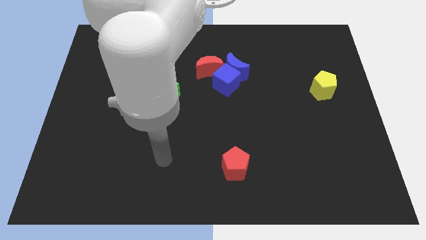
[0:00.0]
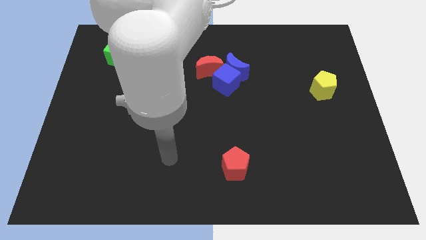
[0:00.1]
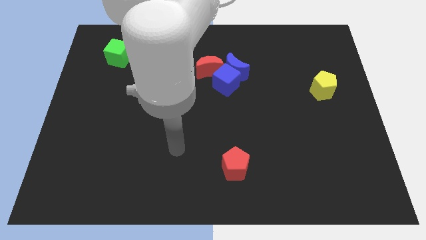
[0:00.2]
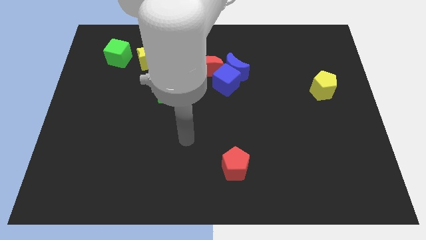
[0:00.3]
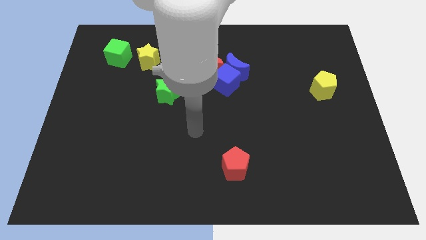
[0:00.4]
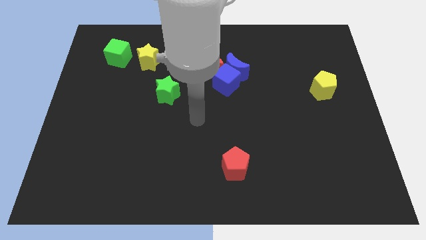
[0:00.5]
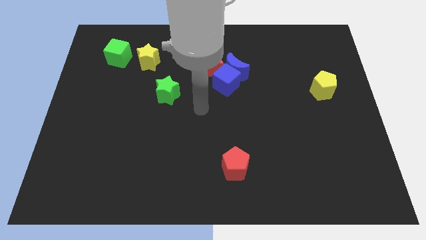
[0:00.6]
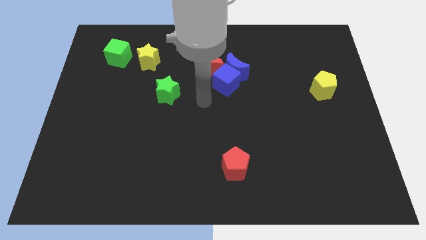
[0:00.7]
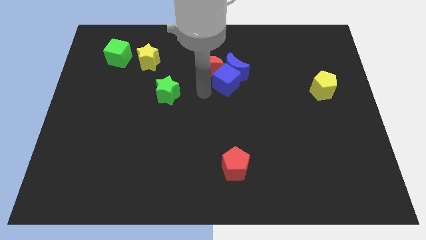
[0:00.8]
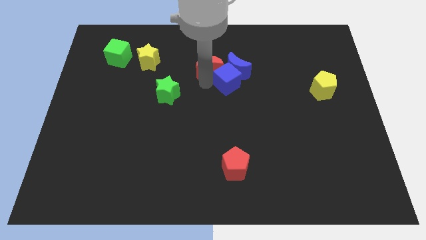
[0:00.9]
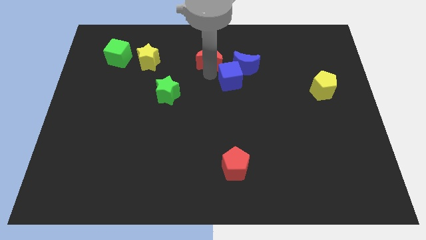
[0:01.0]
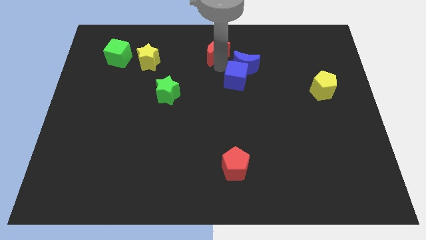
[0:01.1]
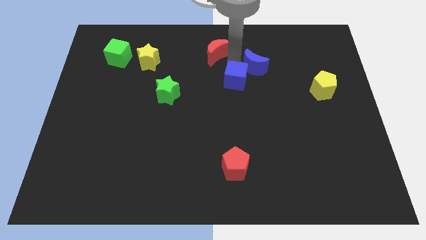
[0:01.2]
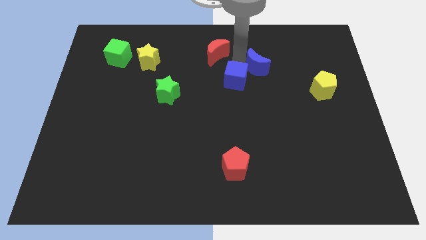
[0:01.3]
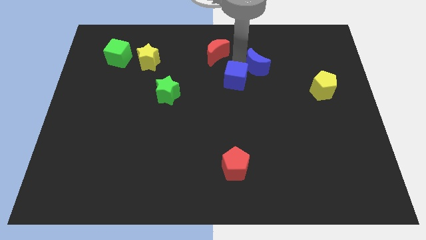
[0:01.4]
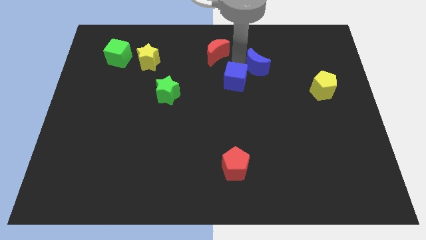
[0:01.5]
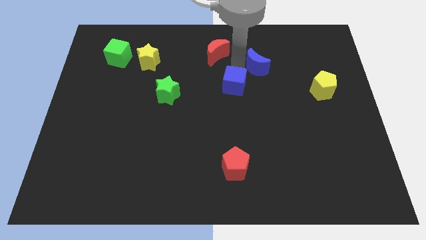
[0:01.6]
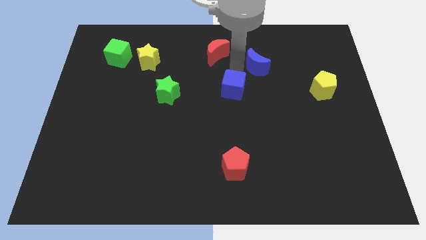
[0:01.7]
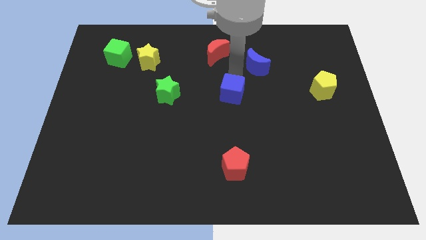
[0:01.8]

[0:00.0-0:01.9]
pull the blue cube apart from the blue moon and red moon

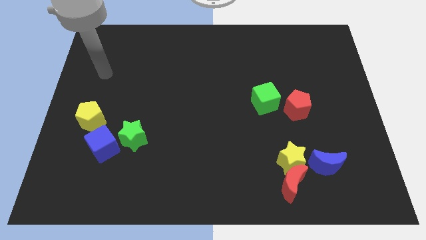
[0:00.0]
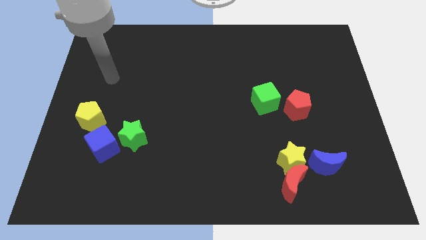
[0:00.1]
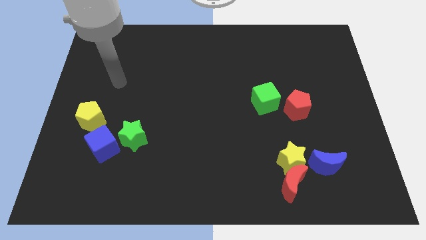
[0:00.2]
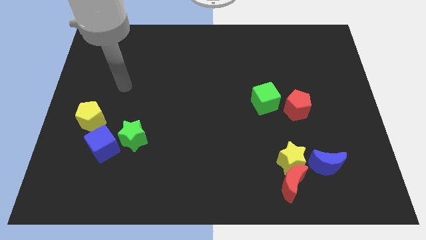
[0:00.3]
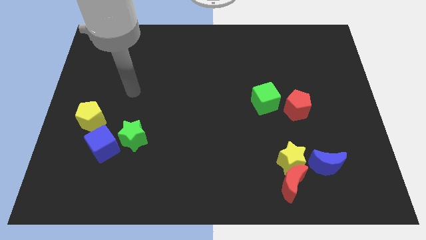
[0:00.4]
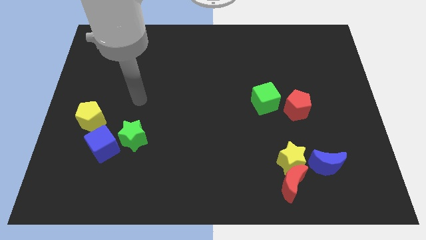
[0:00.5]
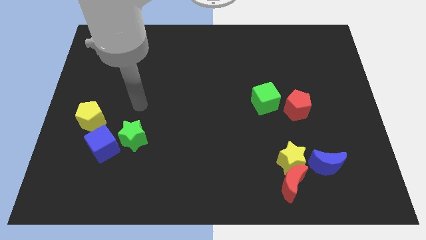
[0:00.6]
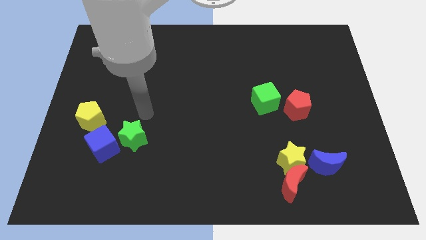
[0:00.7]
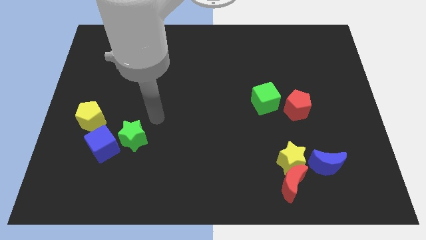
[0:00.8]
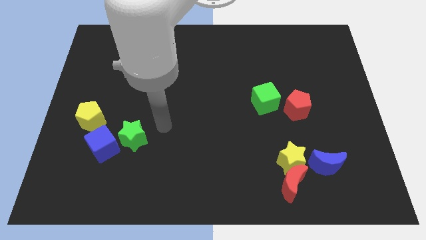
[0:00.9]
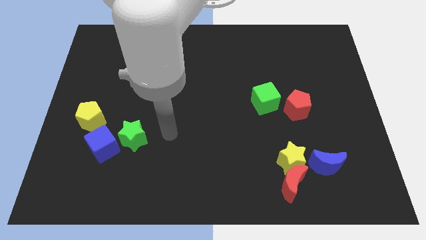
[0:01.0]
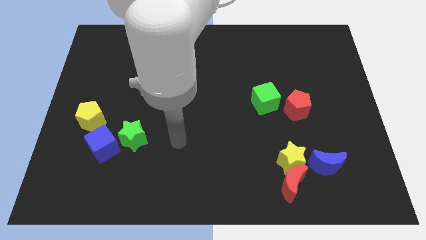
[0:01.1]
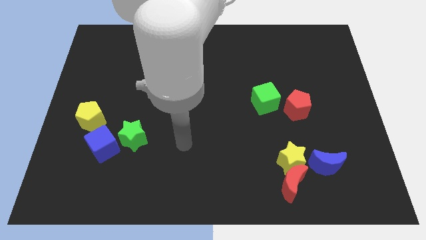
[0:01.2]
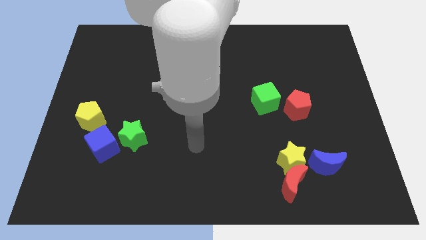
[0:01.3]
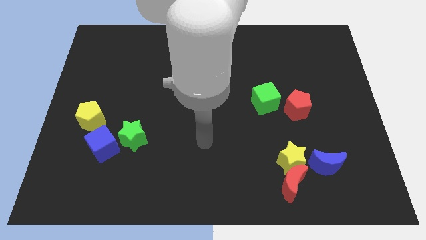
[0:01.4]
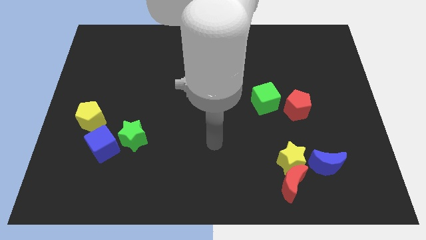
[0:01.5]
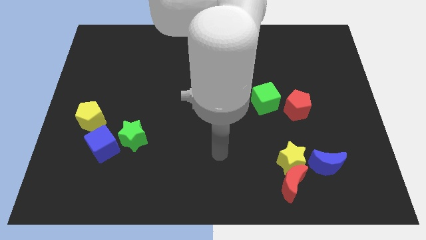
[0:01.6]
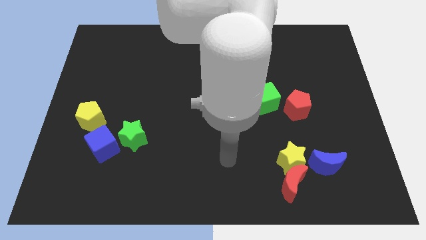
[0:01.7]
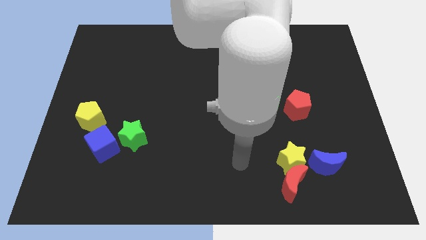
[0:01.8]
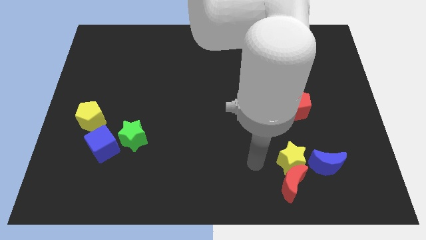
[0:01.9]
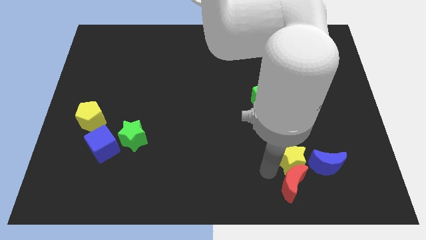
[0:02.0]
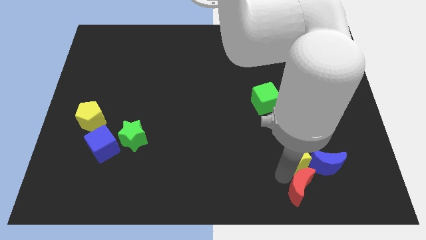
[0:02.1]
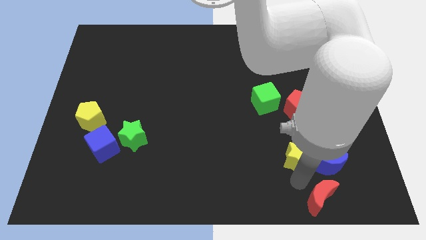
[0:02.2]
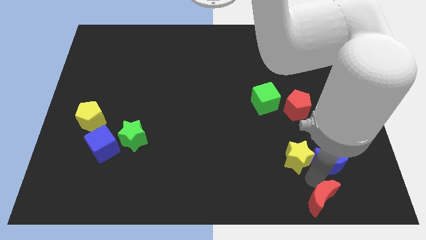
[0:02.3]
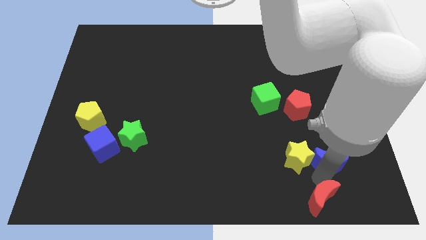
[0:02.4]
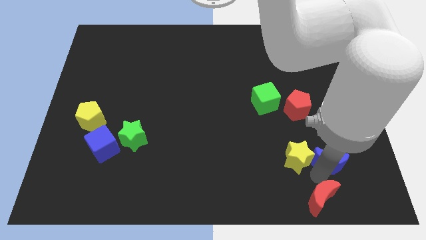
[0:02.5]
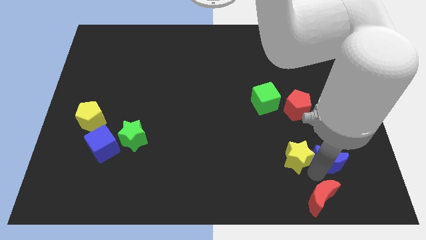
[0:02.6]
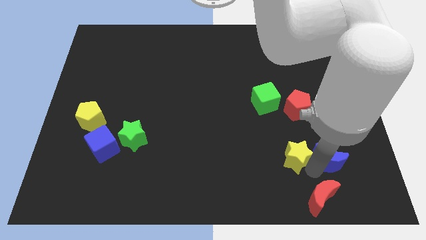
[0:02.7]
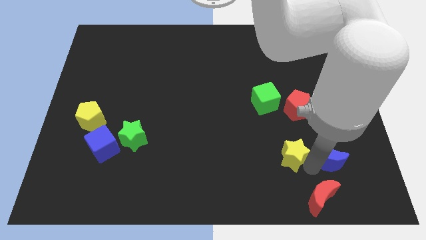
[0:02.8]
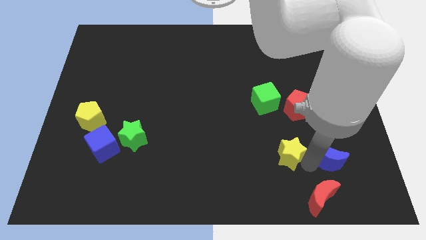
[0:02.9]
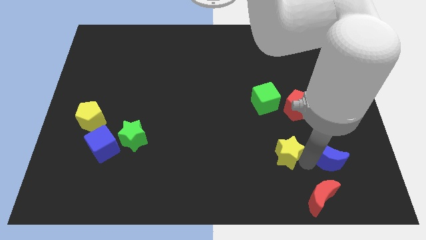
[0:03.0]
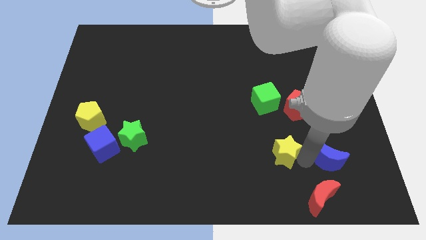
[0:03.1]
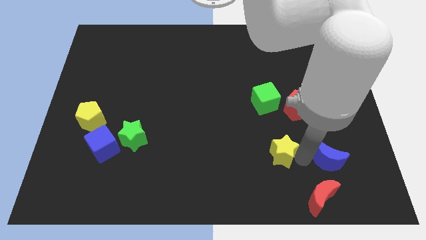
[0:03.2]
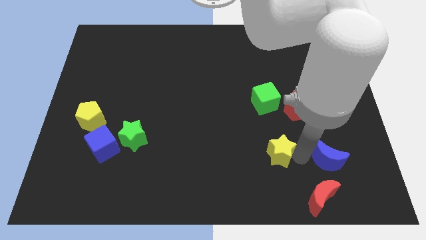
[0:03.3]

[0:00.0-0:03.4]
separate the yellow star from the red moon and blue moon

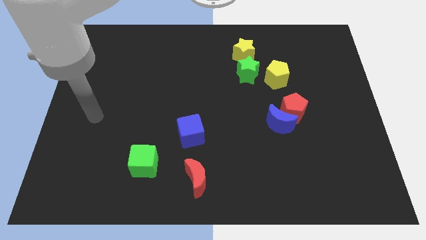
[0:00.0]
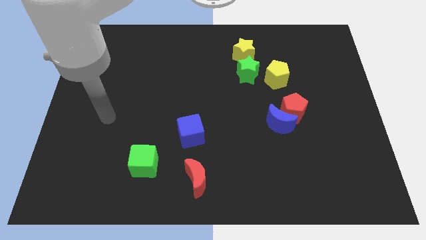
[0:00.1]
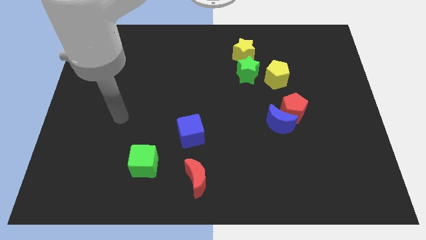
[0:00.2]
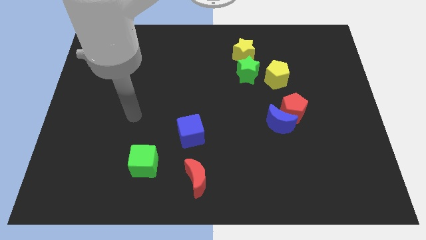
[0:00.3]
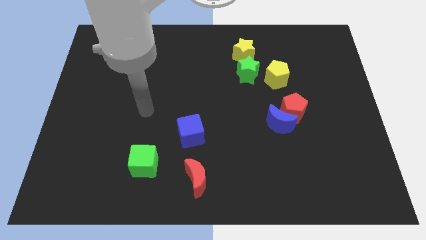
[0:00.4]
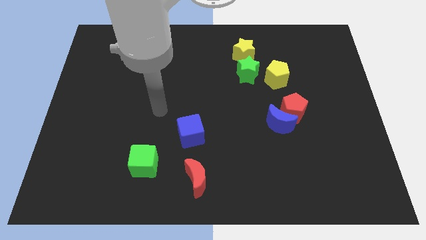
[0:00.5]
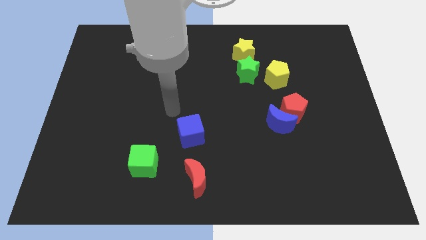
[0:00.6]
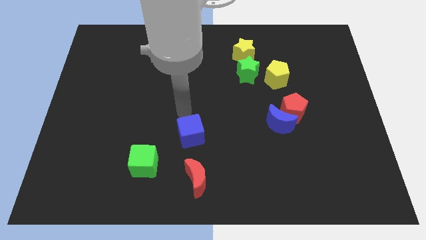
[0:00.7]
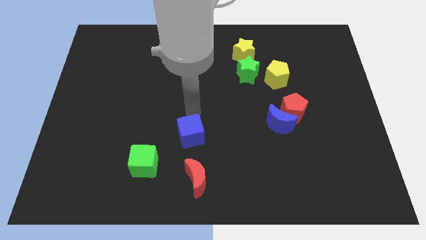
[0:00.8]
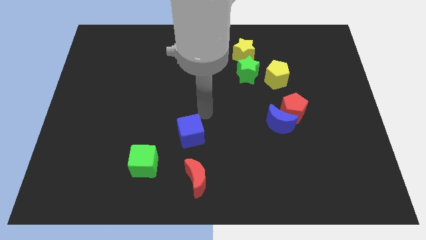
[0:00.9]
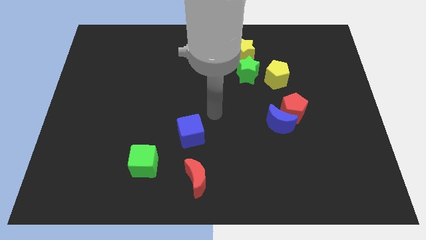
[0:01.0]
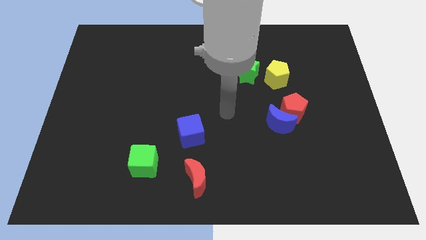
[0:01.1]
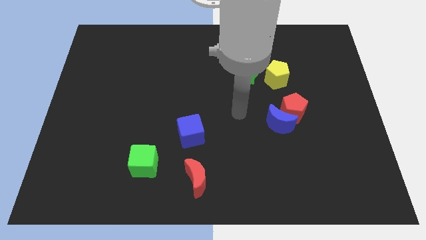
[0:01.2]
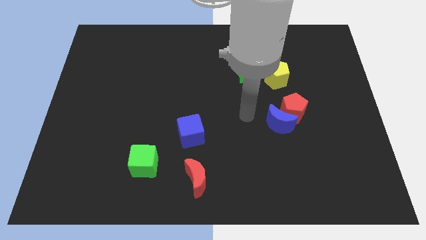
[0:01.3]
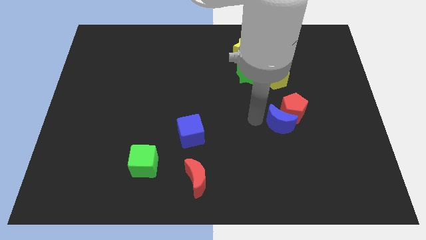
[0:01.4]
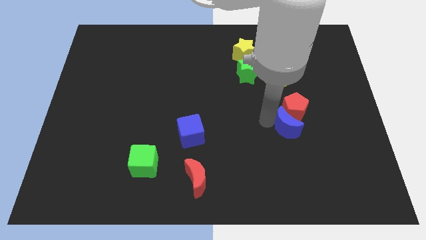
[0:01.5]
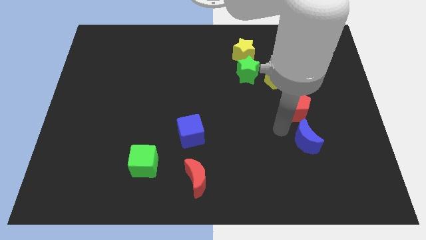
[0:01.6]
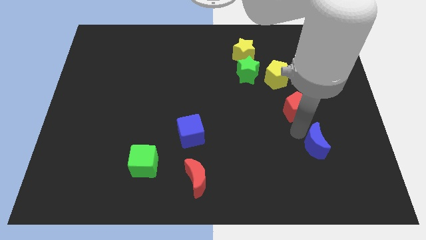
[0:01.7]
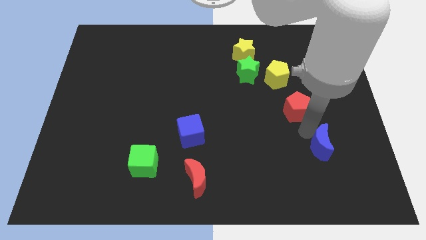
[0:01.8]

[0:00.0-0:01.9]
pull the red pentagon apart from the blue moon

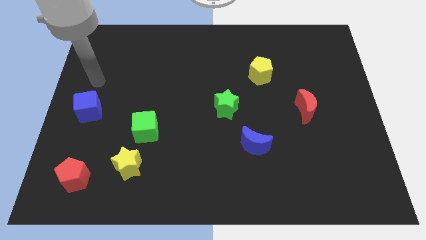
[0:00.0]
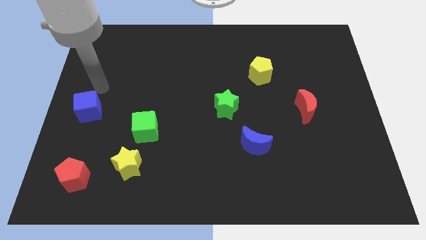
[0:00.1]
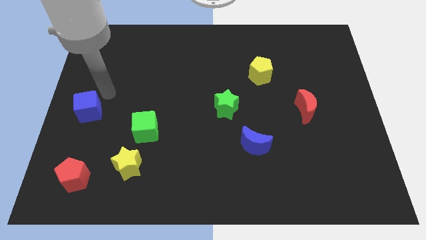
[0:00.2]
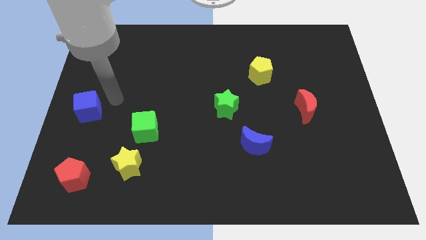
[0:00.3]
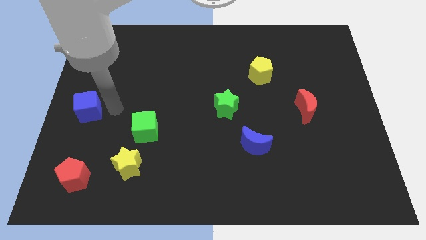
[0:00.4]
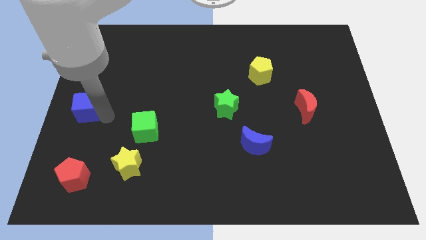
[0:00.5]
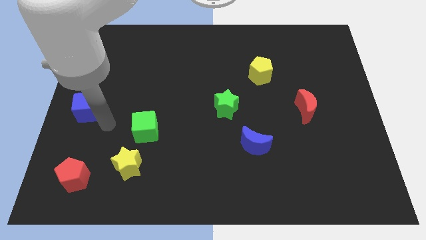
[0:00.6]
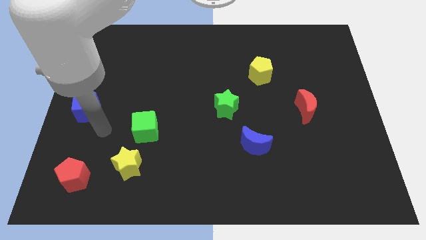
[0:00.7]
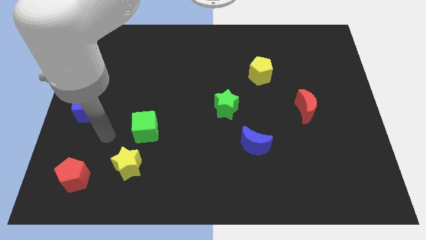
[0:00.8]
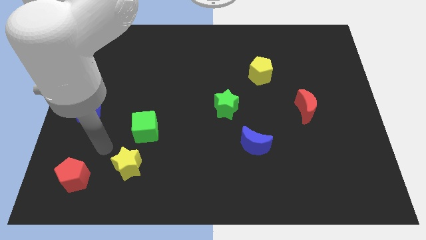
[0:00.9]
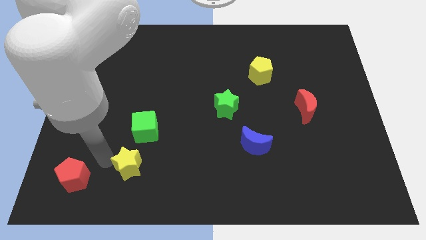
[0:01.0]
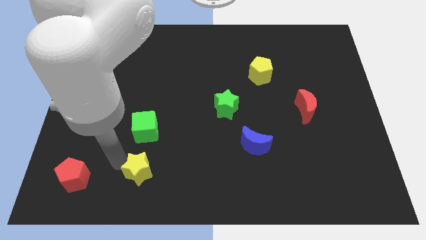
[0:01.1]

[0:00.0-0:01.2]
separate the green cube from the yellow star

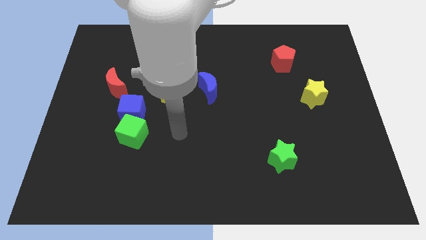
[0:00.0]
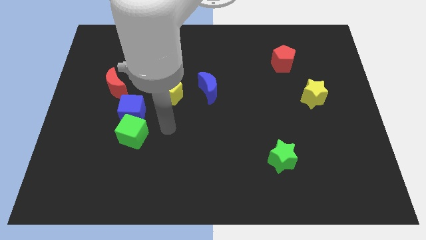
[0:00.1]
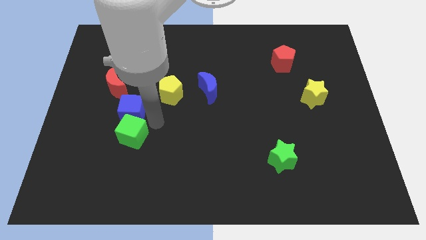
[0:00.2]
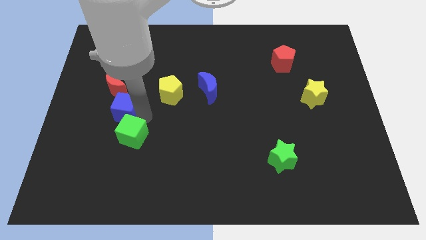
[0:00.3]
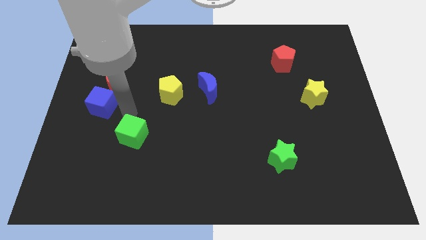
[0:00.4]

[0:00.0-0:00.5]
separate the green cube from the blue cube

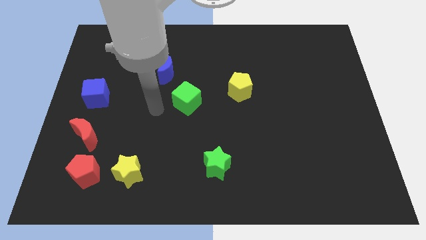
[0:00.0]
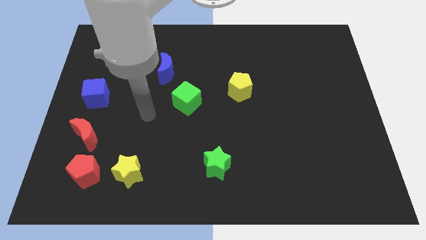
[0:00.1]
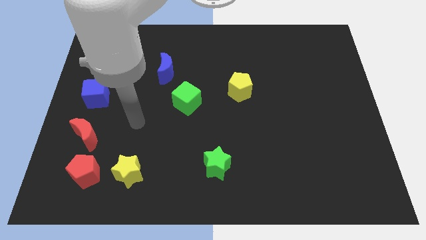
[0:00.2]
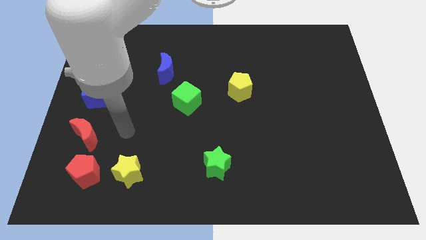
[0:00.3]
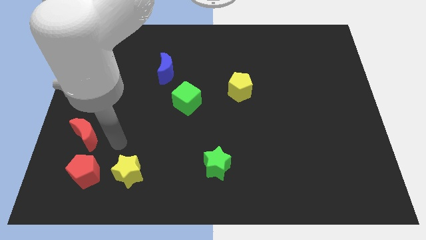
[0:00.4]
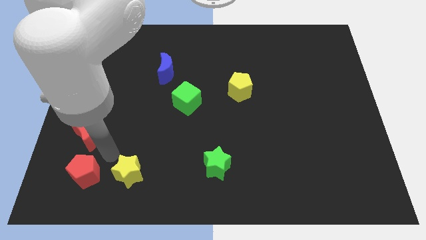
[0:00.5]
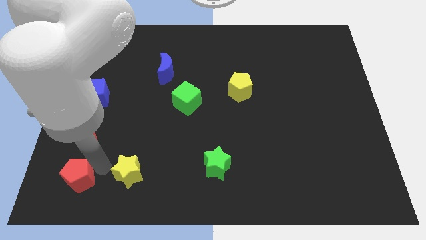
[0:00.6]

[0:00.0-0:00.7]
separate the yellow star from the red pentagon
